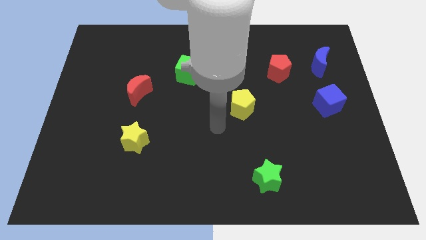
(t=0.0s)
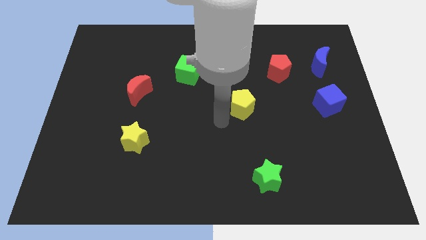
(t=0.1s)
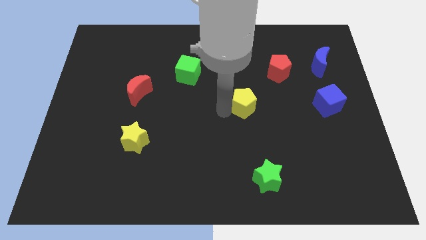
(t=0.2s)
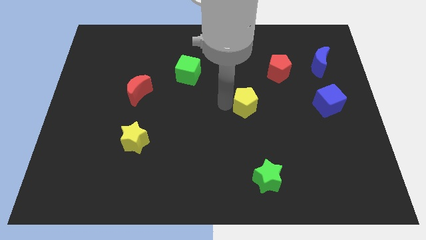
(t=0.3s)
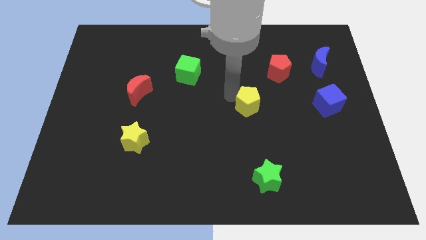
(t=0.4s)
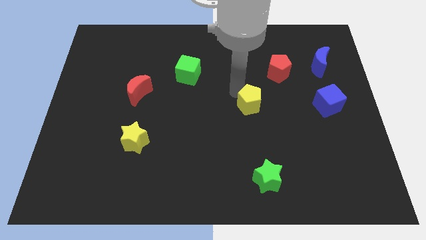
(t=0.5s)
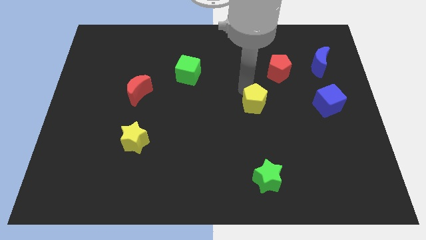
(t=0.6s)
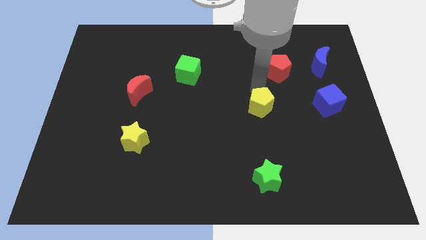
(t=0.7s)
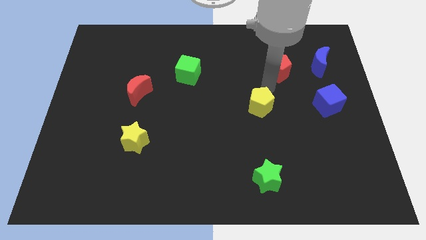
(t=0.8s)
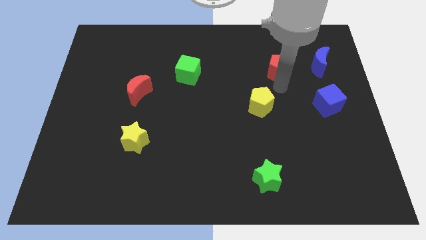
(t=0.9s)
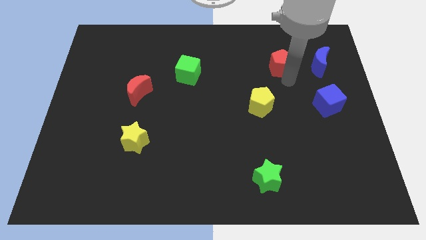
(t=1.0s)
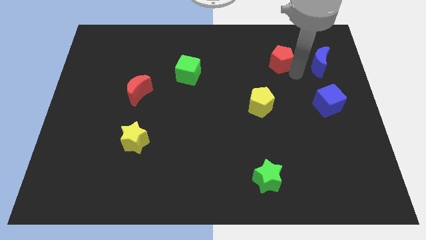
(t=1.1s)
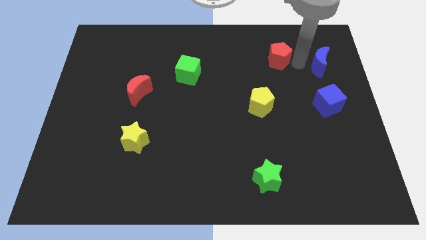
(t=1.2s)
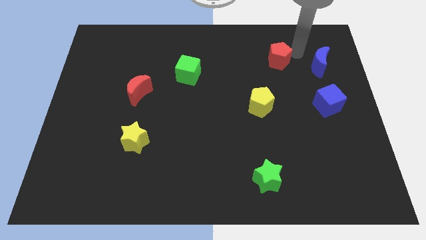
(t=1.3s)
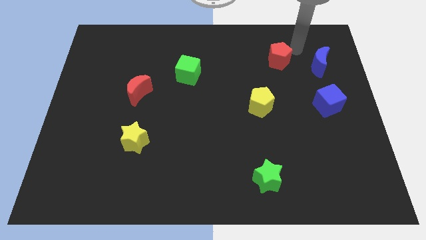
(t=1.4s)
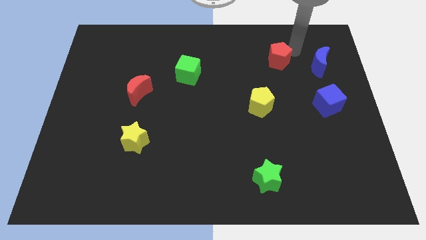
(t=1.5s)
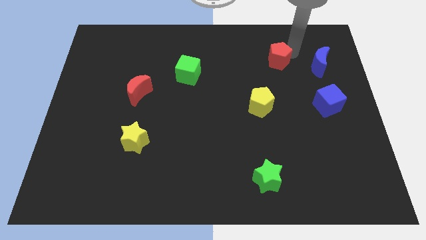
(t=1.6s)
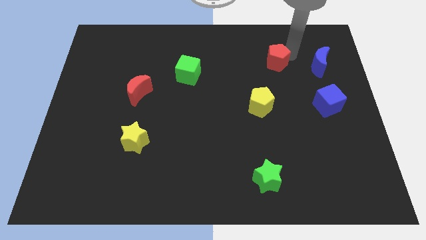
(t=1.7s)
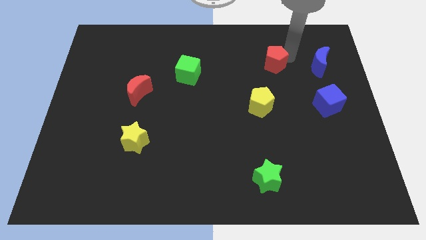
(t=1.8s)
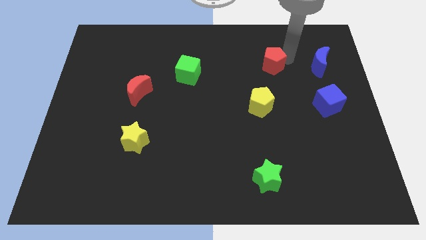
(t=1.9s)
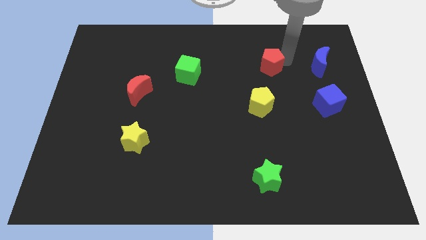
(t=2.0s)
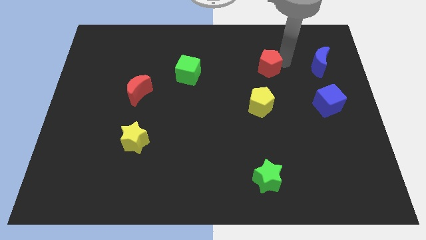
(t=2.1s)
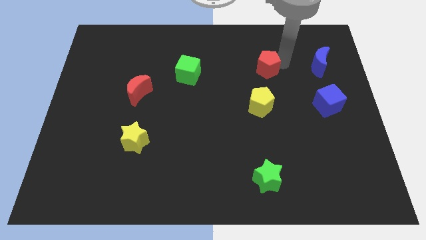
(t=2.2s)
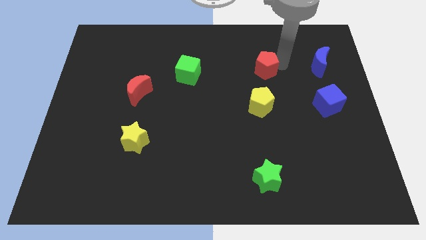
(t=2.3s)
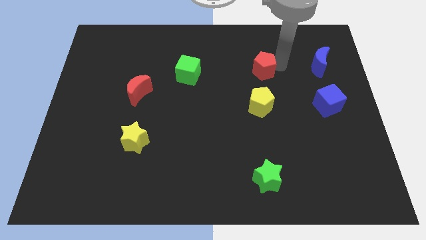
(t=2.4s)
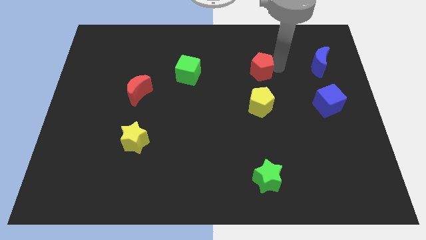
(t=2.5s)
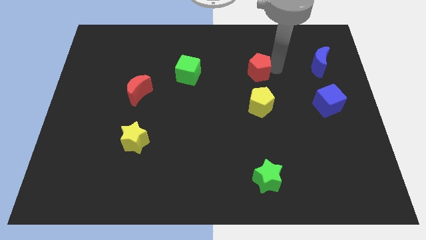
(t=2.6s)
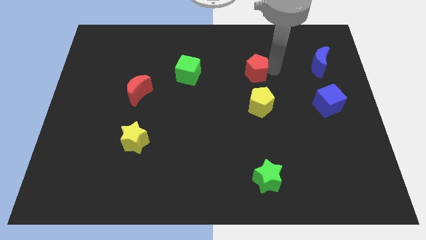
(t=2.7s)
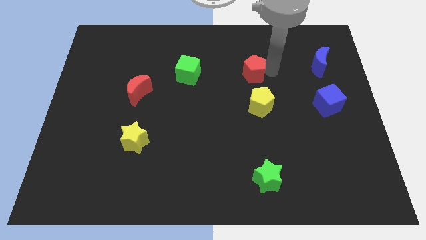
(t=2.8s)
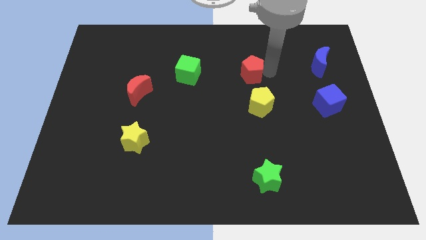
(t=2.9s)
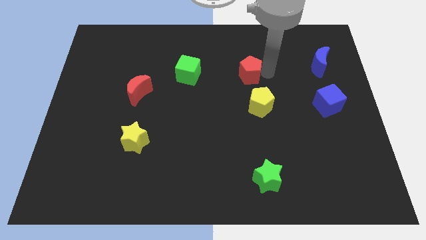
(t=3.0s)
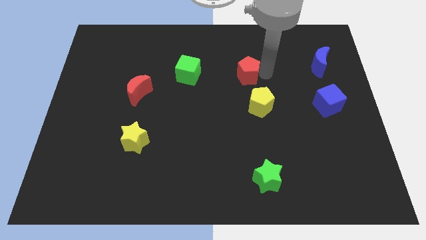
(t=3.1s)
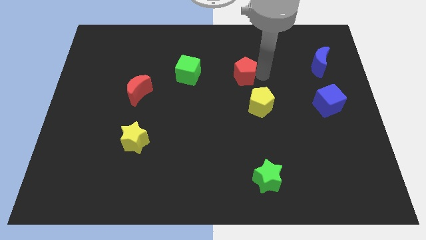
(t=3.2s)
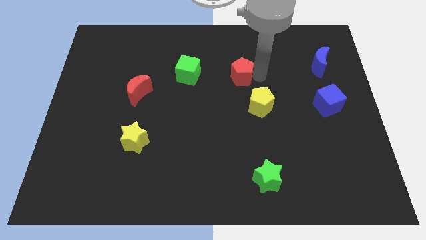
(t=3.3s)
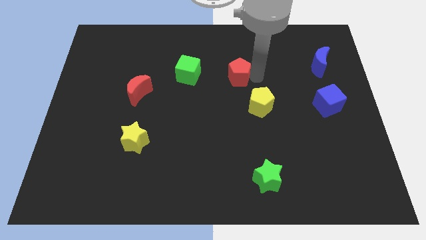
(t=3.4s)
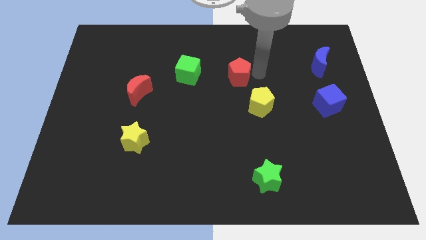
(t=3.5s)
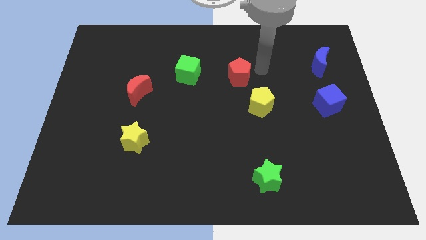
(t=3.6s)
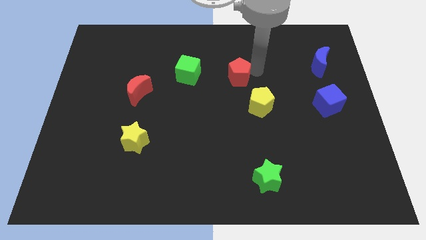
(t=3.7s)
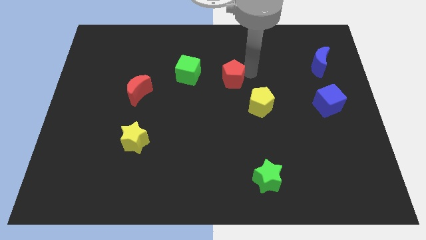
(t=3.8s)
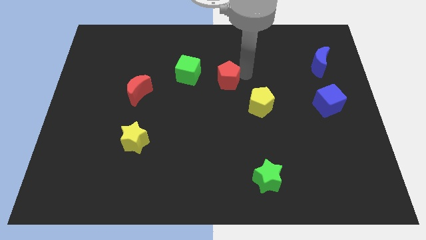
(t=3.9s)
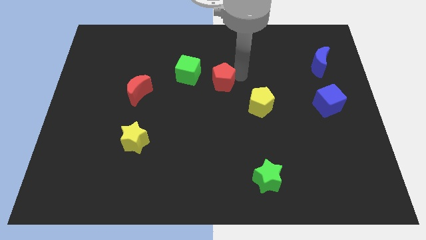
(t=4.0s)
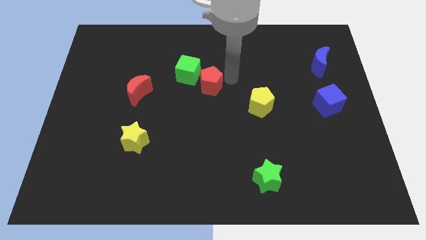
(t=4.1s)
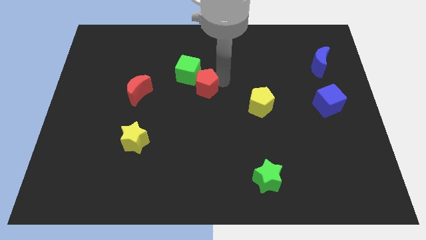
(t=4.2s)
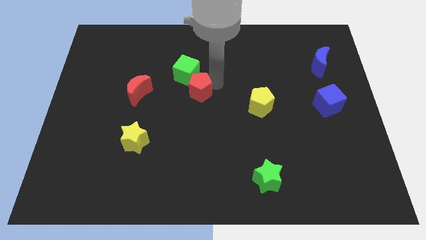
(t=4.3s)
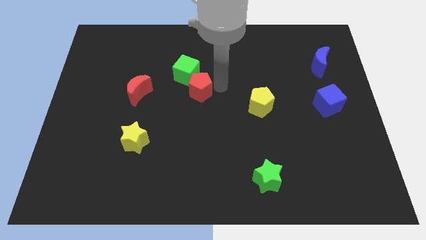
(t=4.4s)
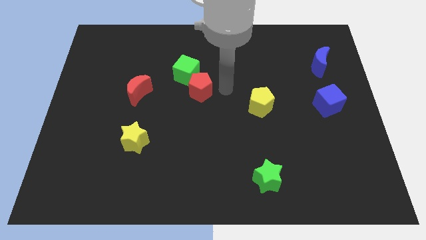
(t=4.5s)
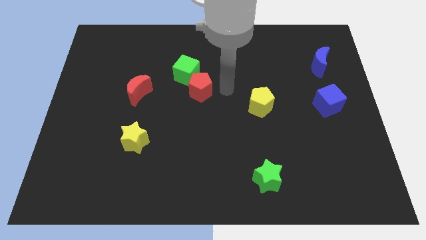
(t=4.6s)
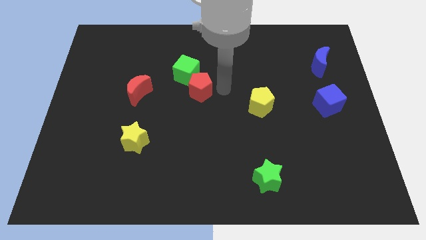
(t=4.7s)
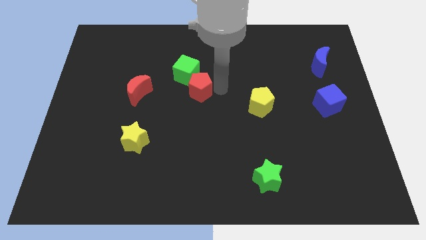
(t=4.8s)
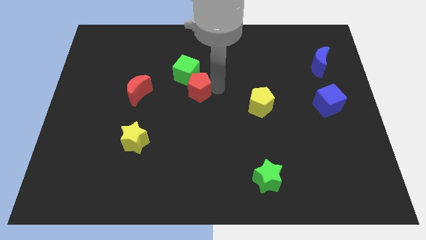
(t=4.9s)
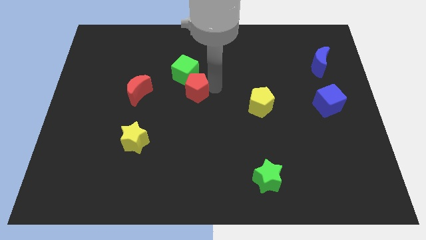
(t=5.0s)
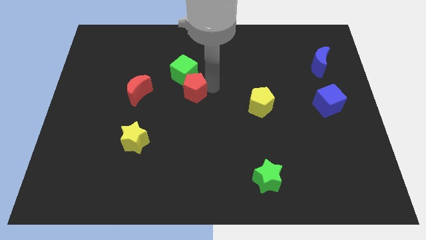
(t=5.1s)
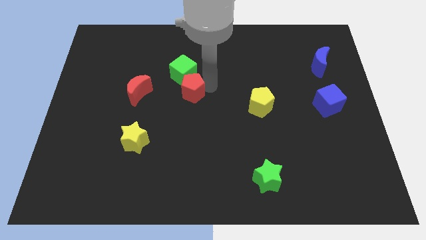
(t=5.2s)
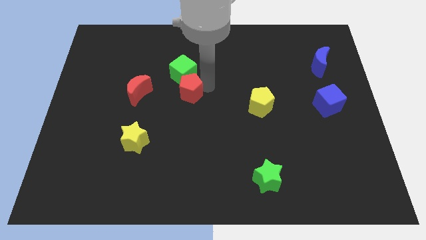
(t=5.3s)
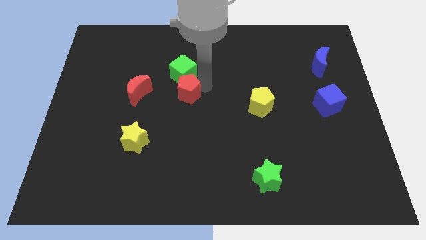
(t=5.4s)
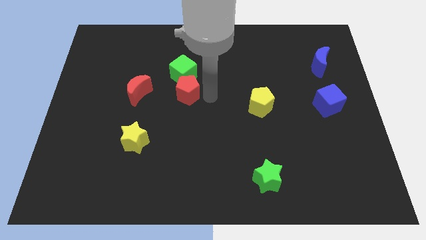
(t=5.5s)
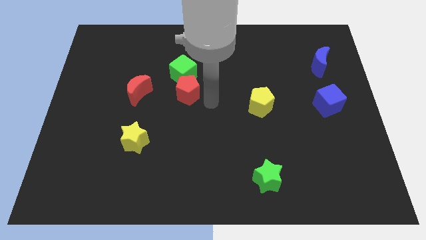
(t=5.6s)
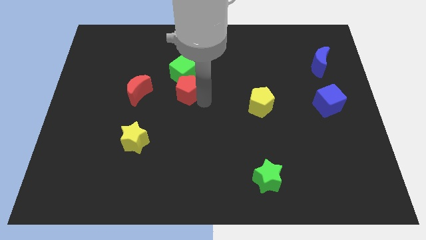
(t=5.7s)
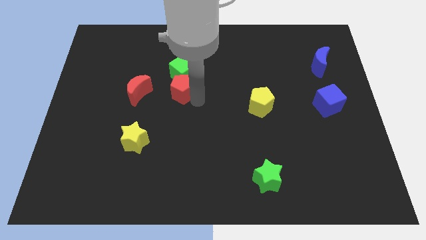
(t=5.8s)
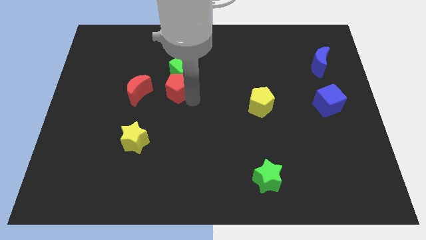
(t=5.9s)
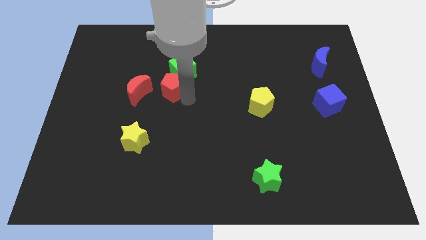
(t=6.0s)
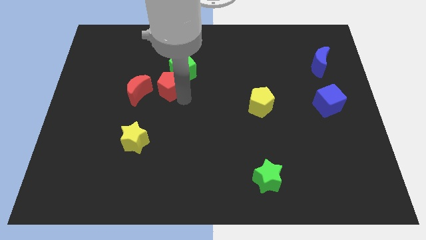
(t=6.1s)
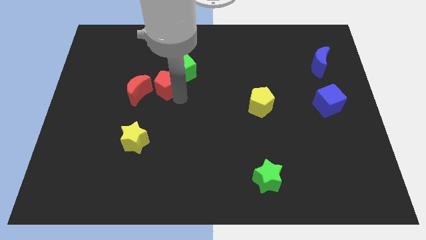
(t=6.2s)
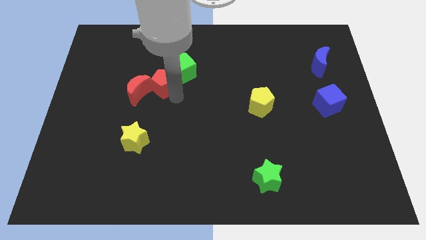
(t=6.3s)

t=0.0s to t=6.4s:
slide the red pentagon to the left side of the green cube
